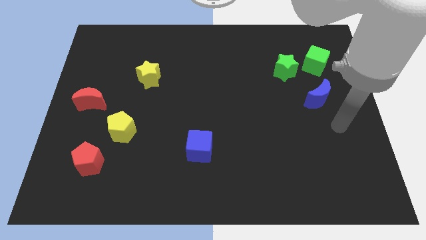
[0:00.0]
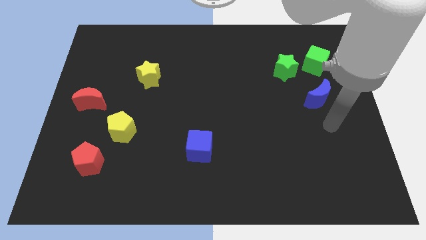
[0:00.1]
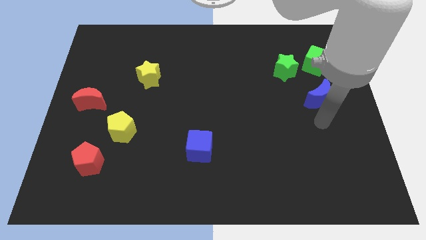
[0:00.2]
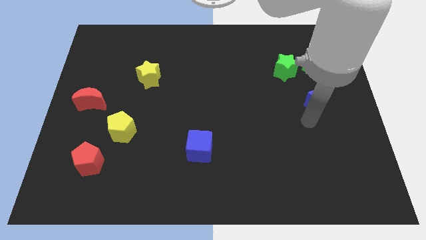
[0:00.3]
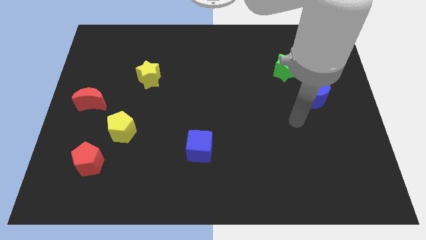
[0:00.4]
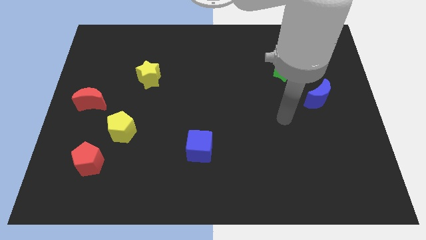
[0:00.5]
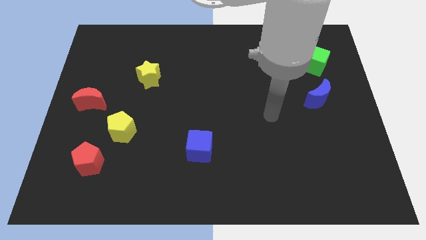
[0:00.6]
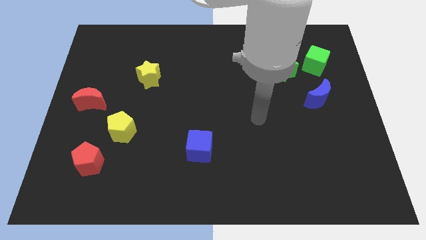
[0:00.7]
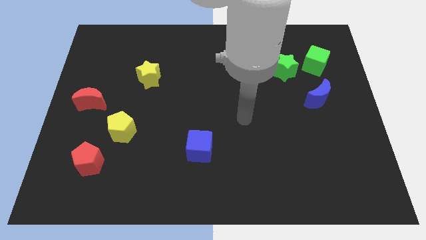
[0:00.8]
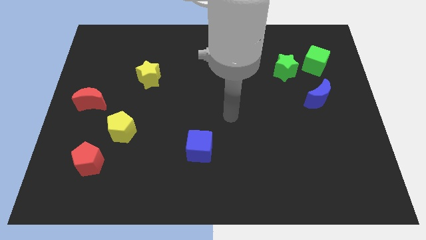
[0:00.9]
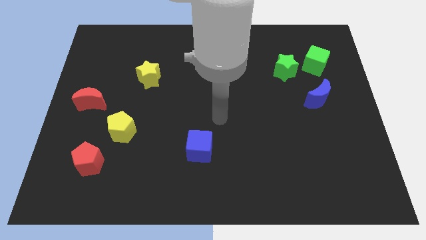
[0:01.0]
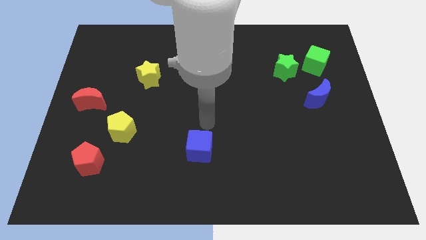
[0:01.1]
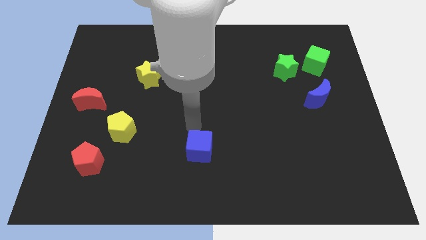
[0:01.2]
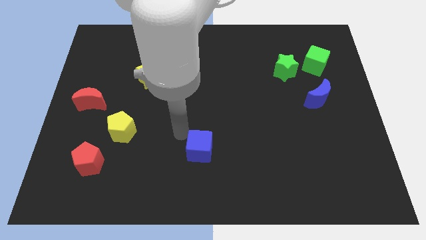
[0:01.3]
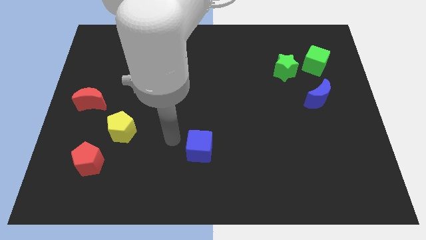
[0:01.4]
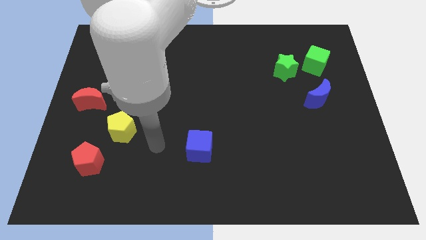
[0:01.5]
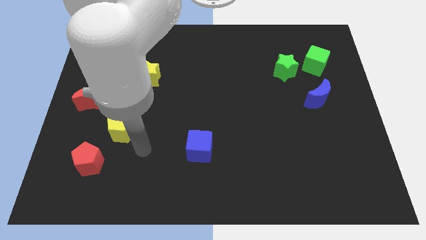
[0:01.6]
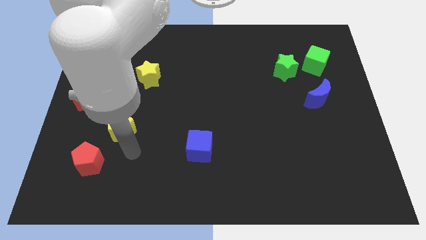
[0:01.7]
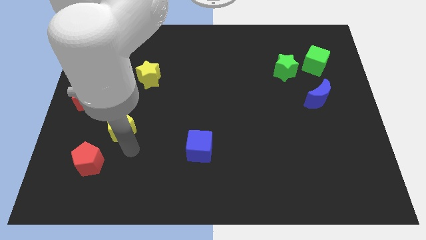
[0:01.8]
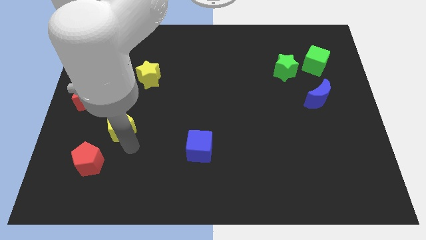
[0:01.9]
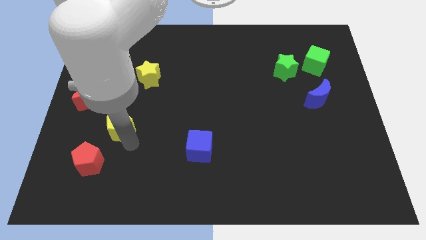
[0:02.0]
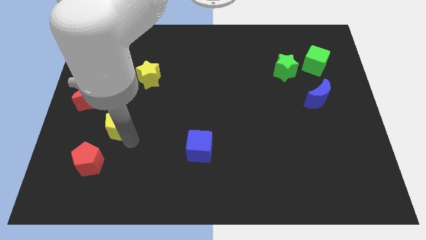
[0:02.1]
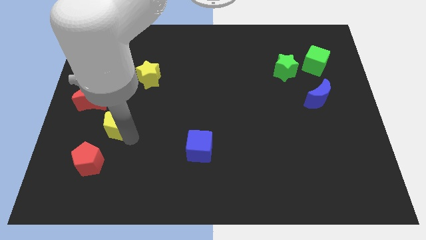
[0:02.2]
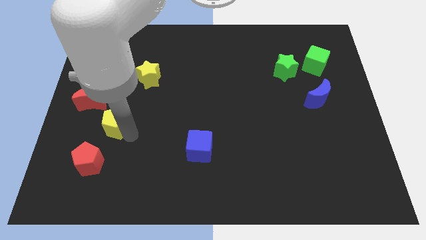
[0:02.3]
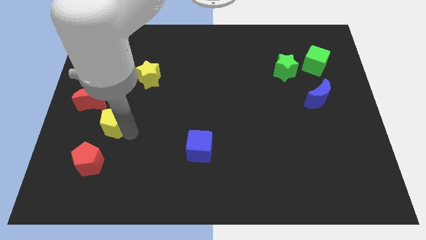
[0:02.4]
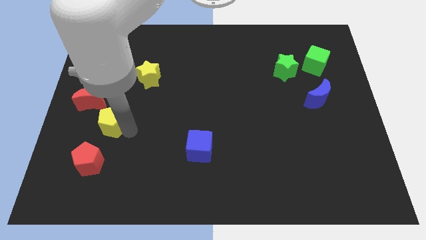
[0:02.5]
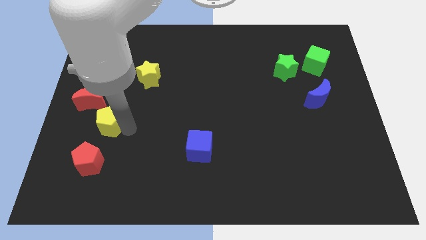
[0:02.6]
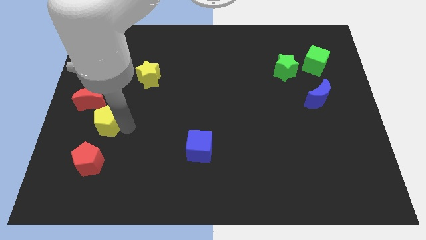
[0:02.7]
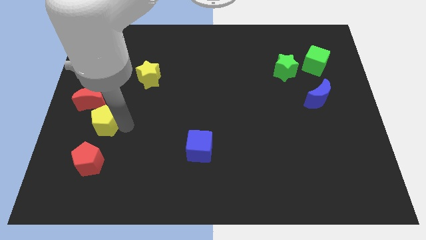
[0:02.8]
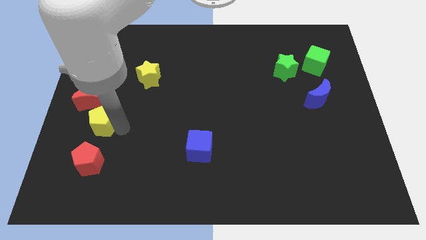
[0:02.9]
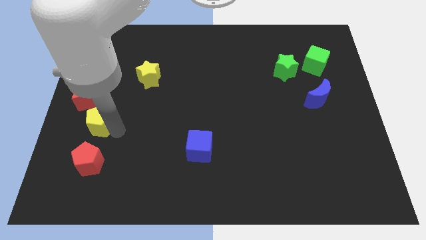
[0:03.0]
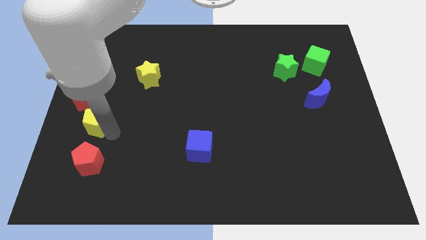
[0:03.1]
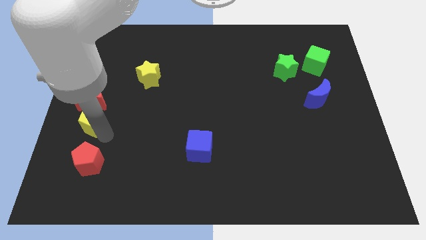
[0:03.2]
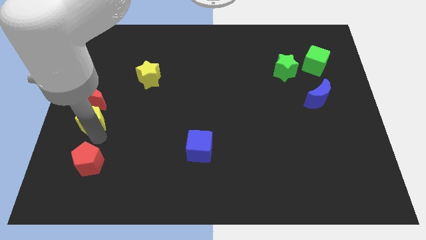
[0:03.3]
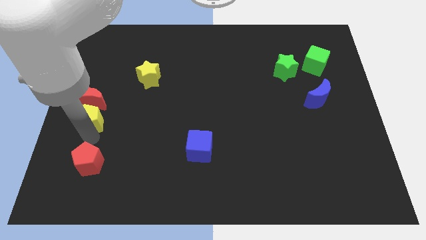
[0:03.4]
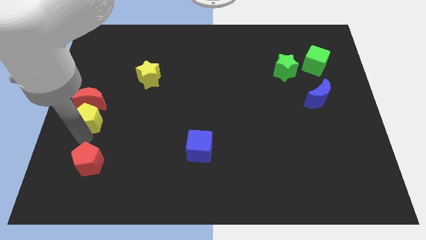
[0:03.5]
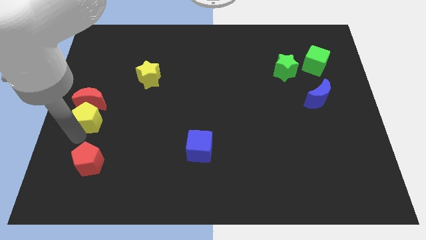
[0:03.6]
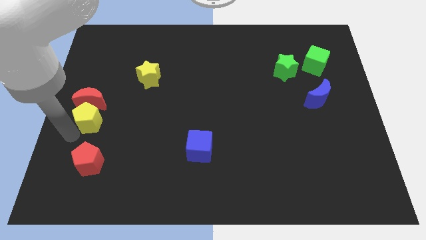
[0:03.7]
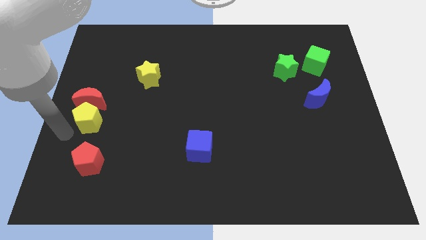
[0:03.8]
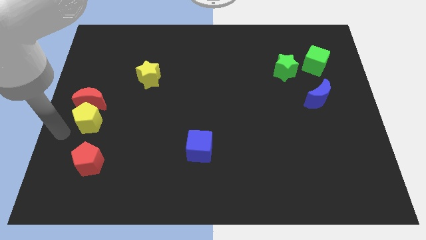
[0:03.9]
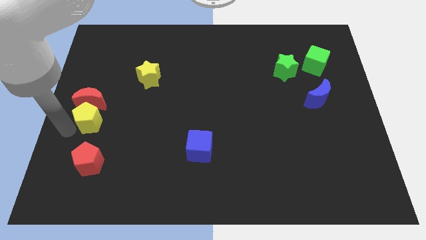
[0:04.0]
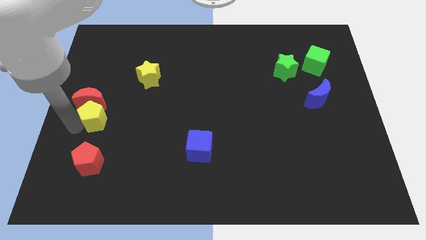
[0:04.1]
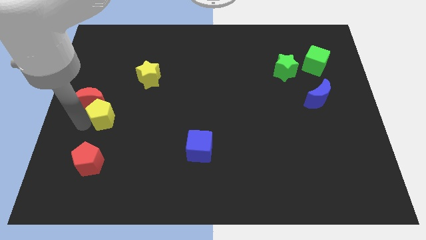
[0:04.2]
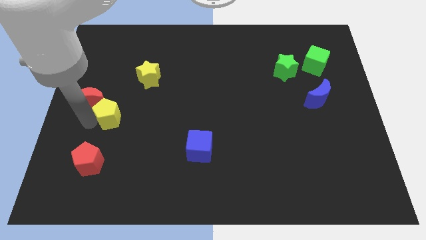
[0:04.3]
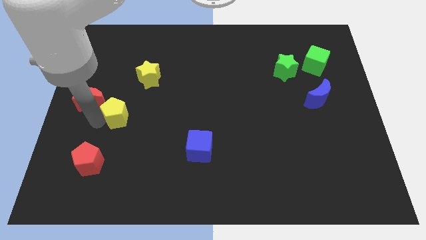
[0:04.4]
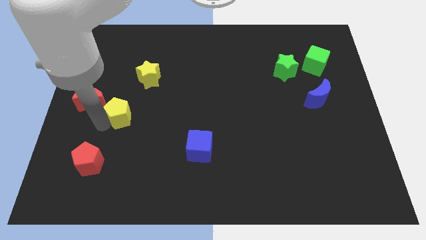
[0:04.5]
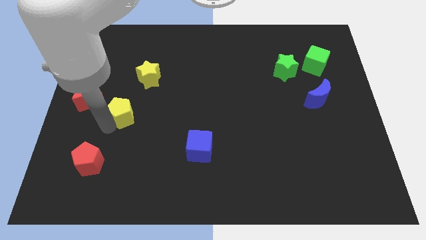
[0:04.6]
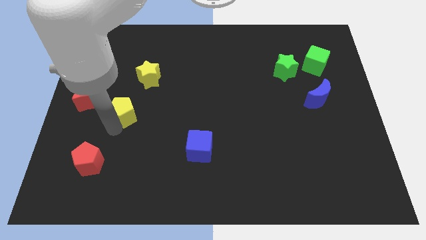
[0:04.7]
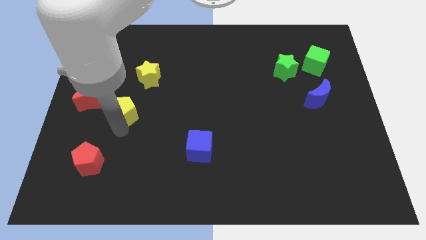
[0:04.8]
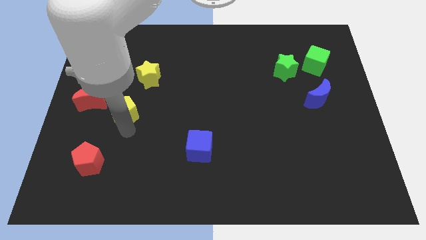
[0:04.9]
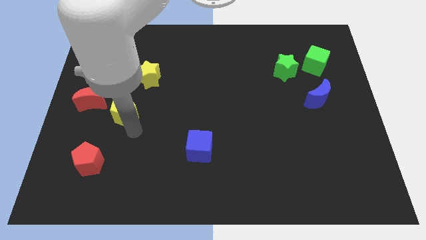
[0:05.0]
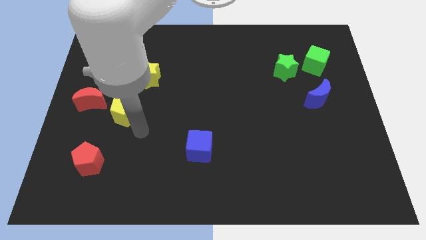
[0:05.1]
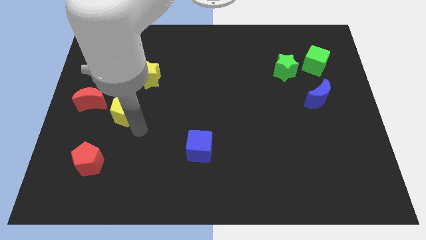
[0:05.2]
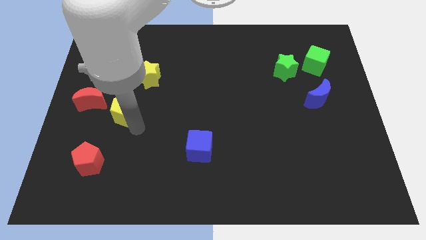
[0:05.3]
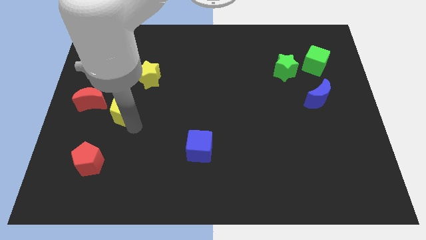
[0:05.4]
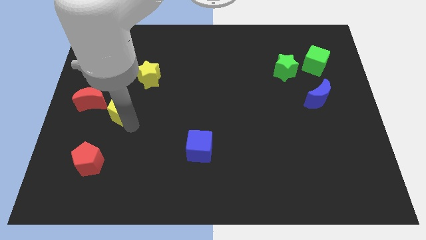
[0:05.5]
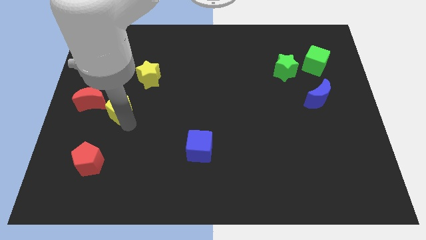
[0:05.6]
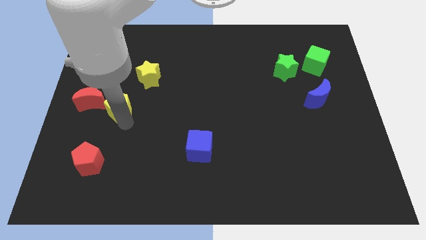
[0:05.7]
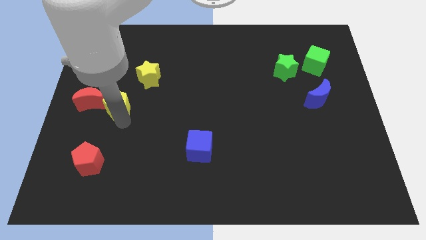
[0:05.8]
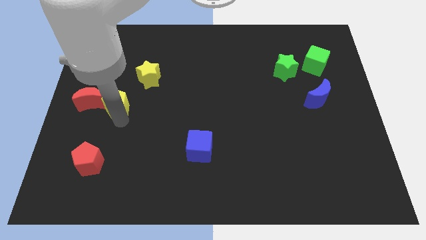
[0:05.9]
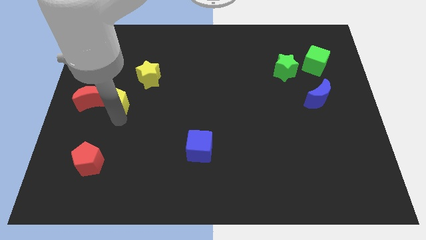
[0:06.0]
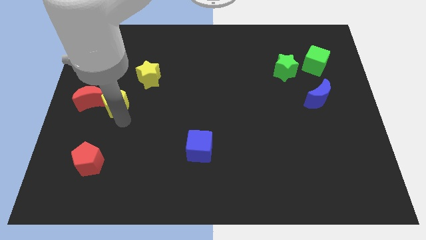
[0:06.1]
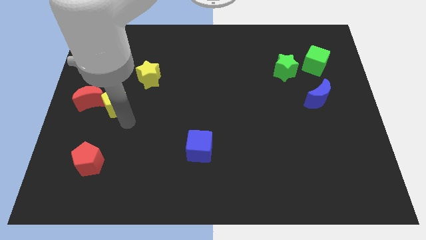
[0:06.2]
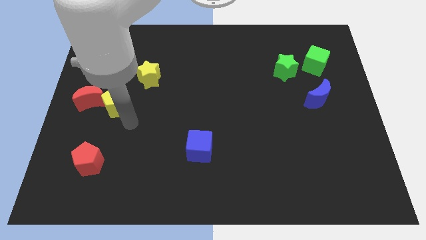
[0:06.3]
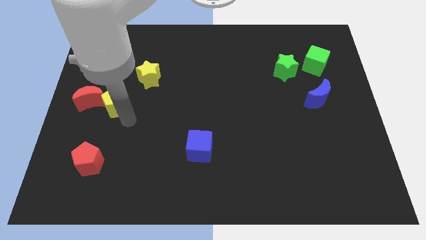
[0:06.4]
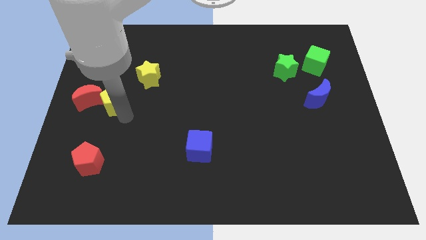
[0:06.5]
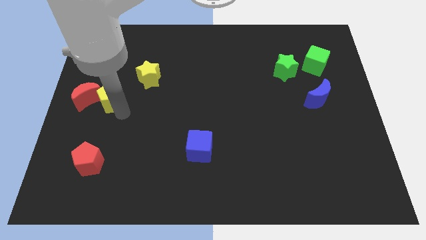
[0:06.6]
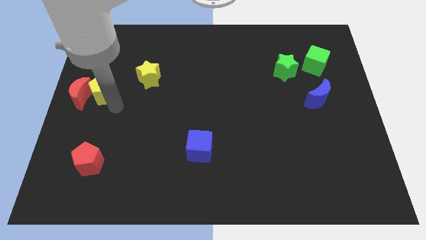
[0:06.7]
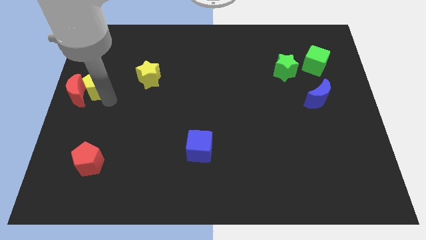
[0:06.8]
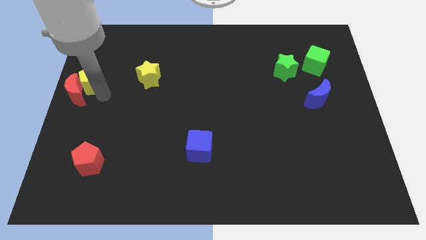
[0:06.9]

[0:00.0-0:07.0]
slide the yellow pentagon above the red moon
